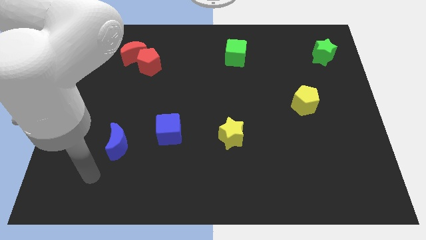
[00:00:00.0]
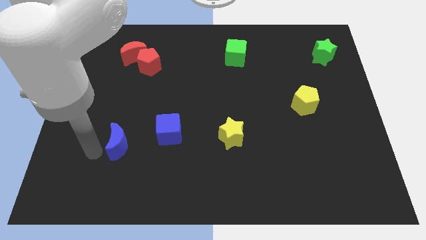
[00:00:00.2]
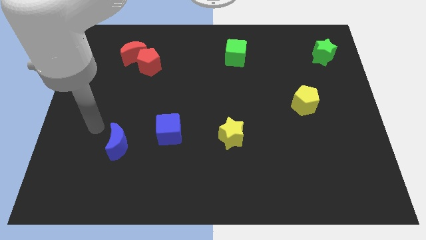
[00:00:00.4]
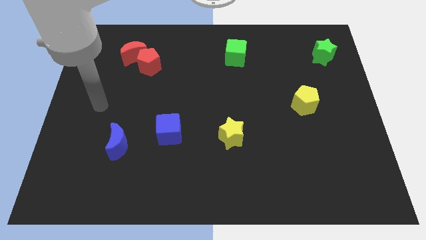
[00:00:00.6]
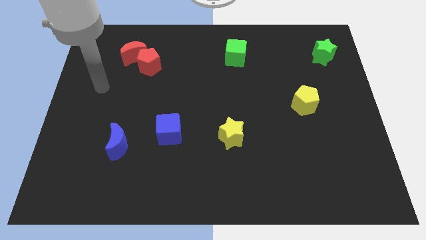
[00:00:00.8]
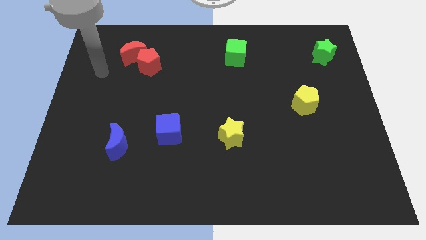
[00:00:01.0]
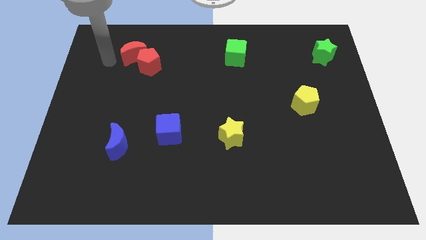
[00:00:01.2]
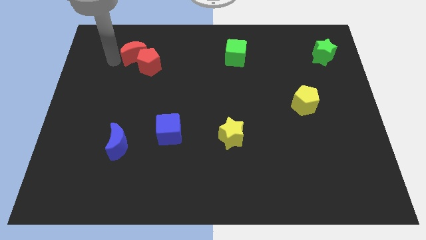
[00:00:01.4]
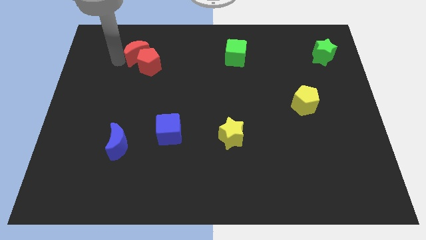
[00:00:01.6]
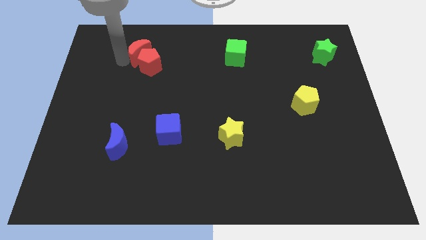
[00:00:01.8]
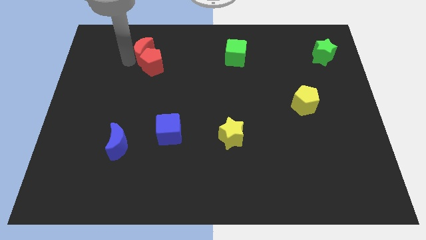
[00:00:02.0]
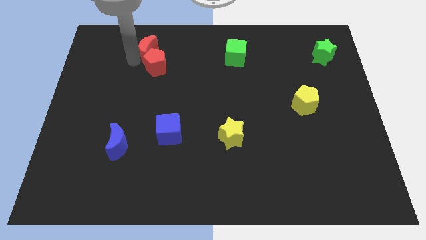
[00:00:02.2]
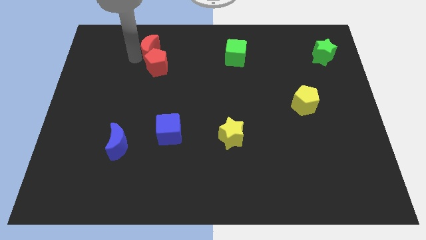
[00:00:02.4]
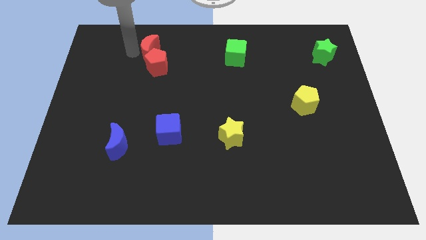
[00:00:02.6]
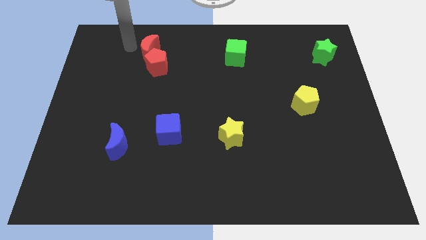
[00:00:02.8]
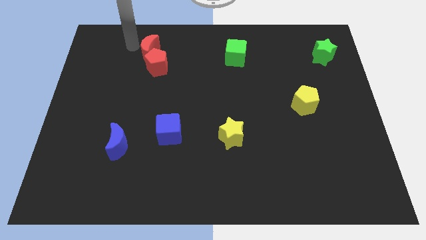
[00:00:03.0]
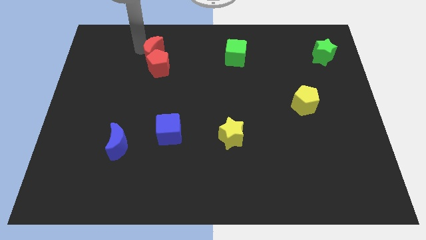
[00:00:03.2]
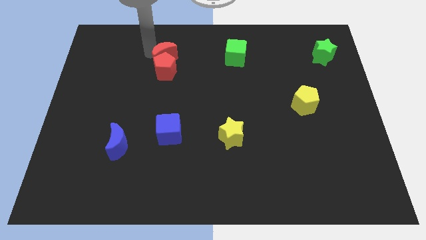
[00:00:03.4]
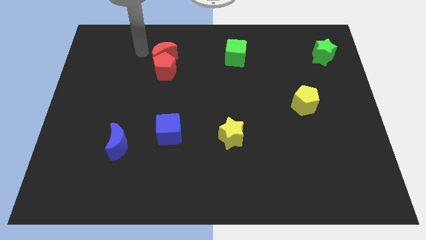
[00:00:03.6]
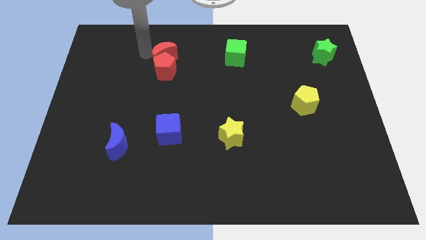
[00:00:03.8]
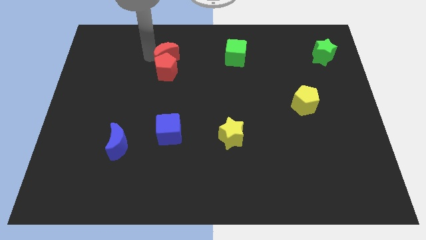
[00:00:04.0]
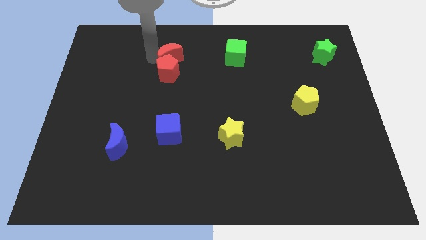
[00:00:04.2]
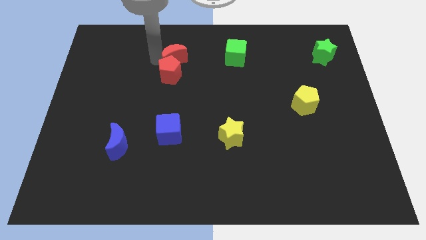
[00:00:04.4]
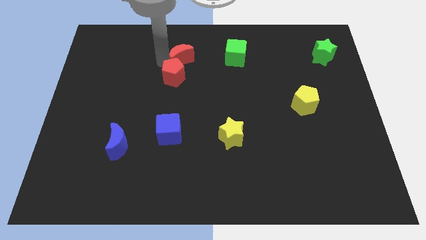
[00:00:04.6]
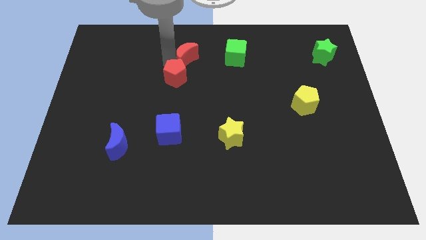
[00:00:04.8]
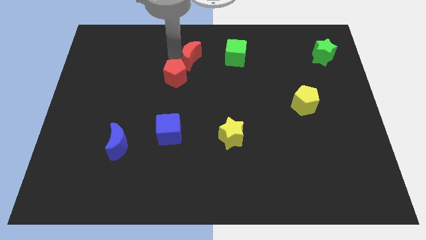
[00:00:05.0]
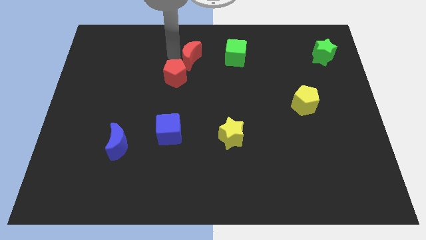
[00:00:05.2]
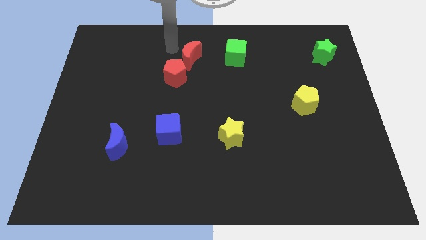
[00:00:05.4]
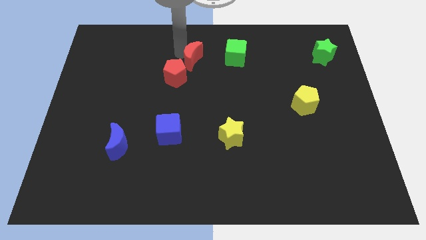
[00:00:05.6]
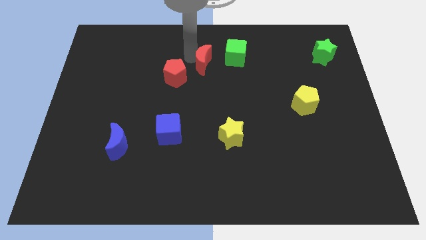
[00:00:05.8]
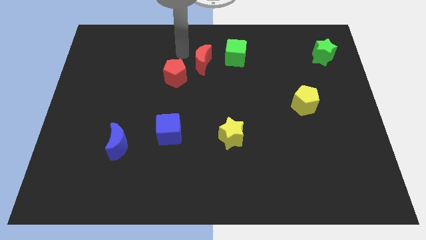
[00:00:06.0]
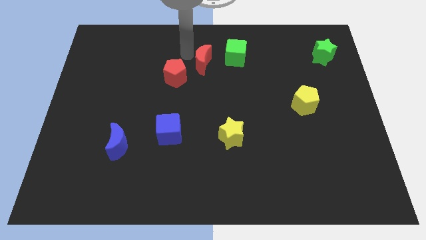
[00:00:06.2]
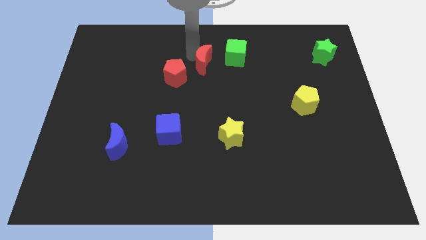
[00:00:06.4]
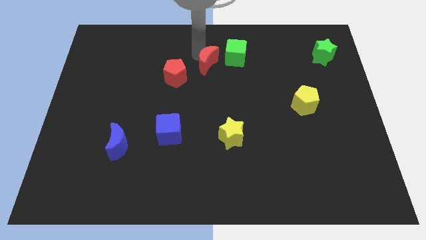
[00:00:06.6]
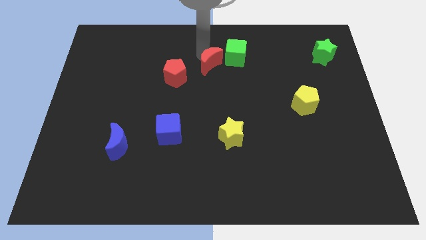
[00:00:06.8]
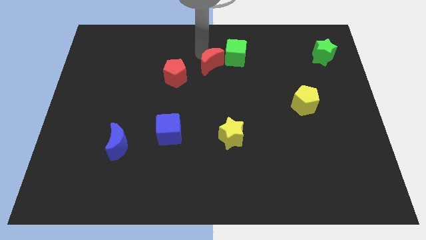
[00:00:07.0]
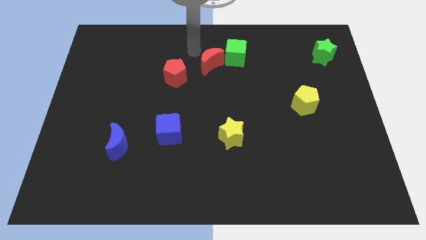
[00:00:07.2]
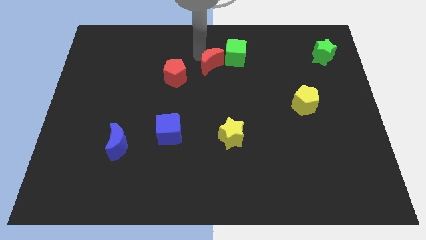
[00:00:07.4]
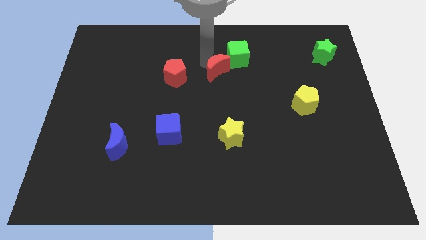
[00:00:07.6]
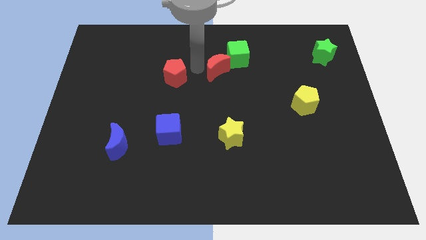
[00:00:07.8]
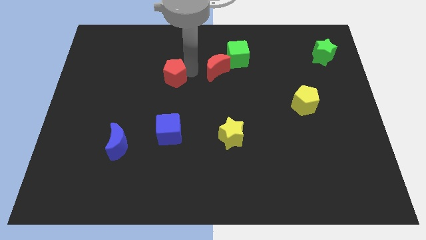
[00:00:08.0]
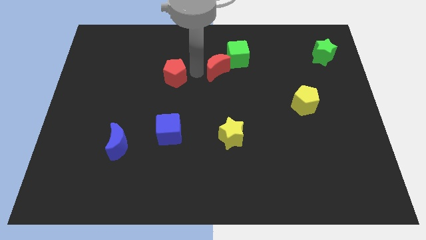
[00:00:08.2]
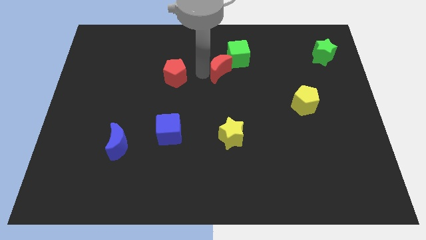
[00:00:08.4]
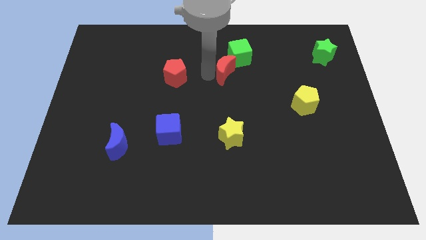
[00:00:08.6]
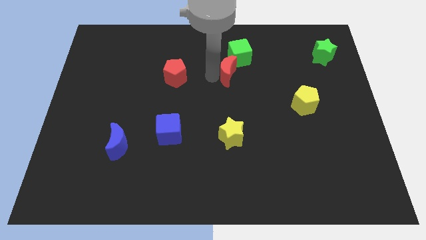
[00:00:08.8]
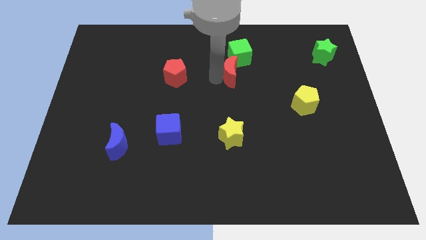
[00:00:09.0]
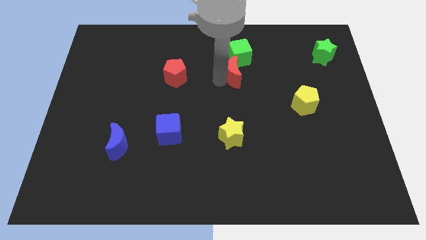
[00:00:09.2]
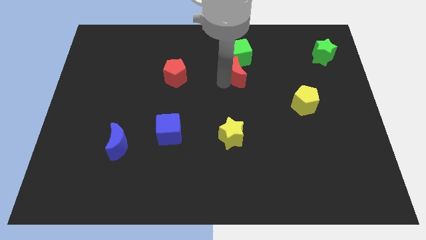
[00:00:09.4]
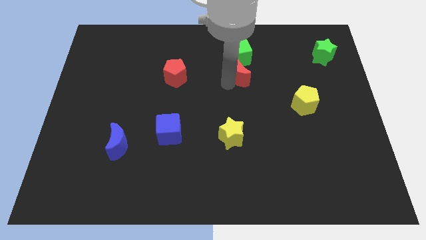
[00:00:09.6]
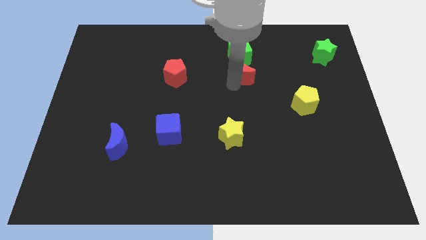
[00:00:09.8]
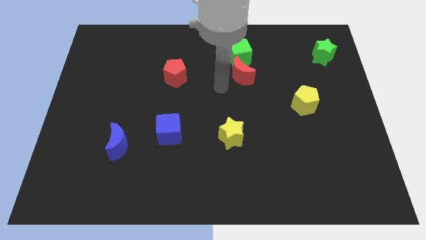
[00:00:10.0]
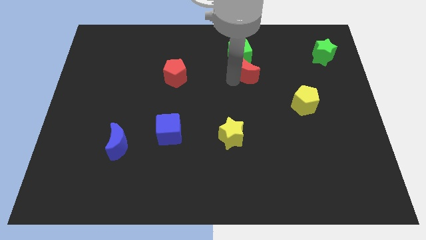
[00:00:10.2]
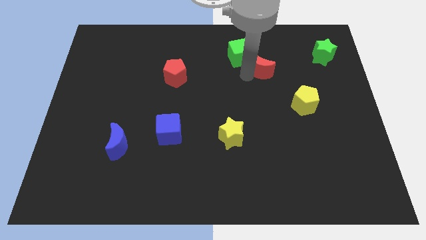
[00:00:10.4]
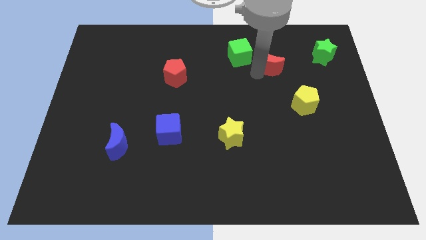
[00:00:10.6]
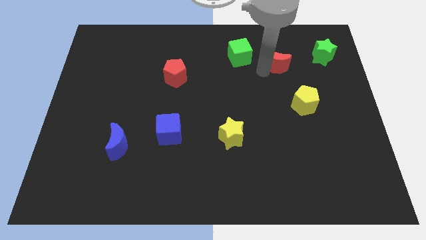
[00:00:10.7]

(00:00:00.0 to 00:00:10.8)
put the red moon to the left side of the green star

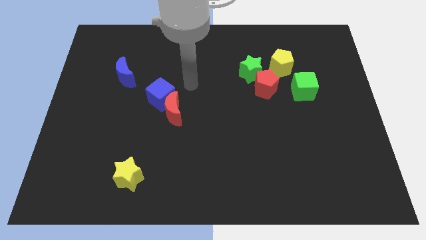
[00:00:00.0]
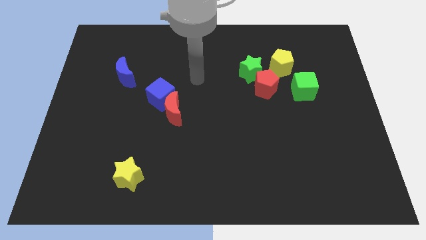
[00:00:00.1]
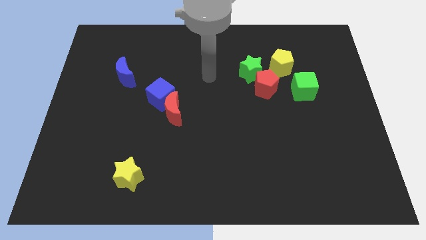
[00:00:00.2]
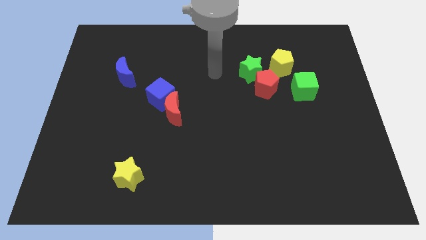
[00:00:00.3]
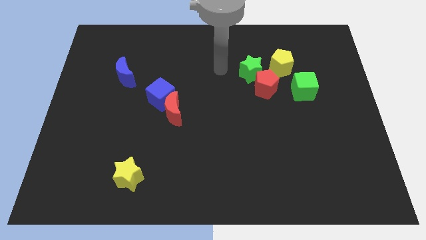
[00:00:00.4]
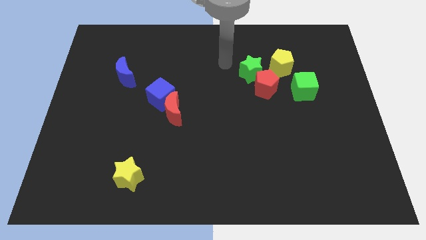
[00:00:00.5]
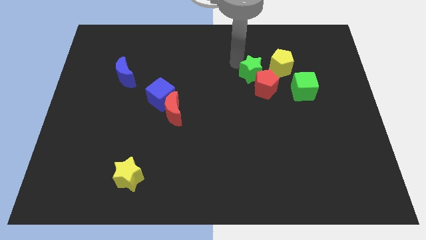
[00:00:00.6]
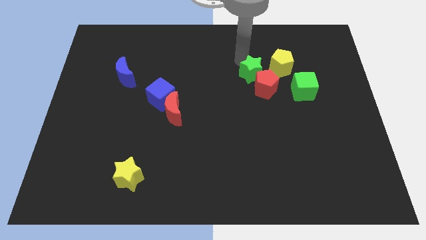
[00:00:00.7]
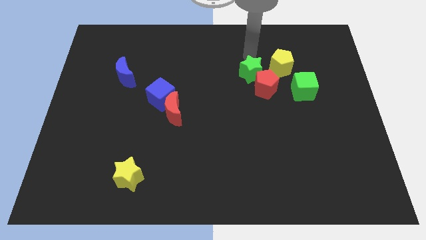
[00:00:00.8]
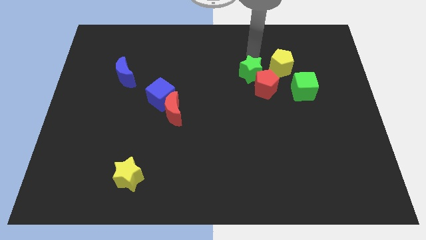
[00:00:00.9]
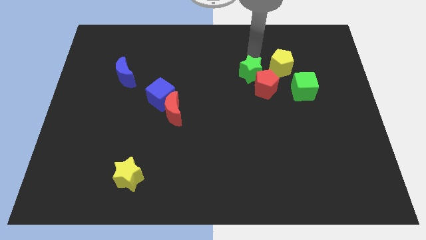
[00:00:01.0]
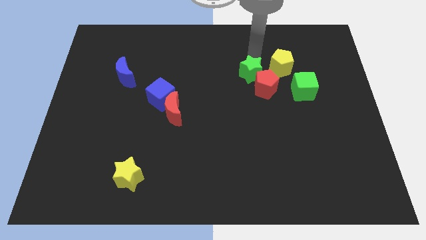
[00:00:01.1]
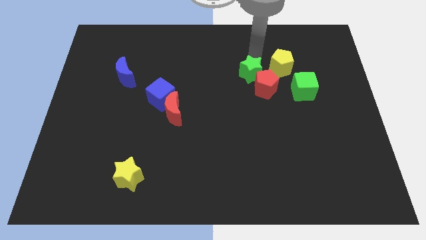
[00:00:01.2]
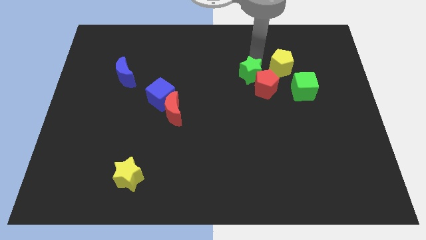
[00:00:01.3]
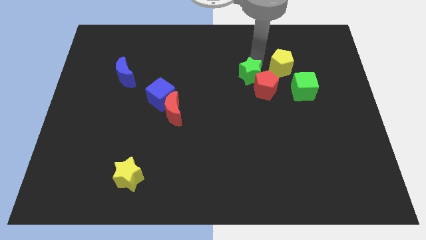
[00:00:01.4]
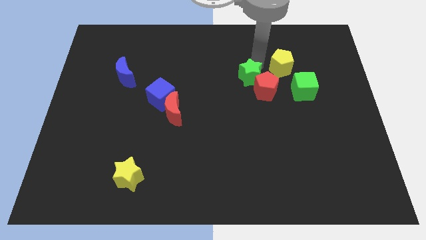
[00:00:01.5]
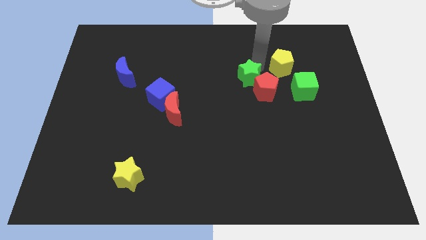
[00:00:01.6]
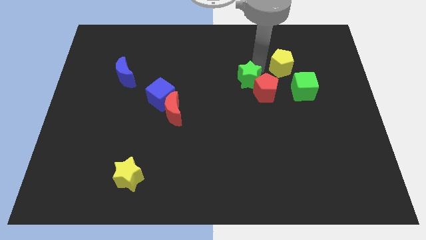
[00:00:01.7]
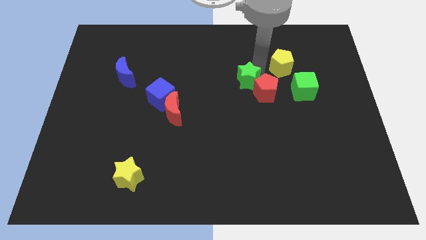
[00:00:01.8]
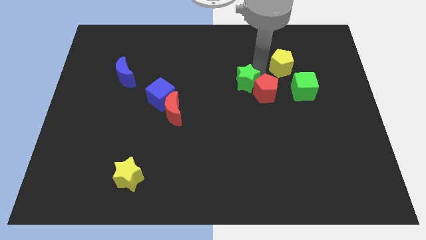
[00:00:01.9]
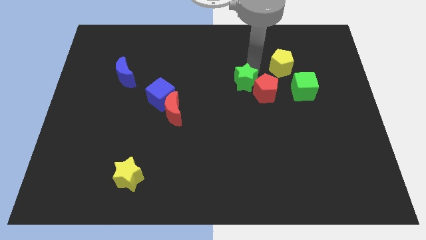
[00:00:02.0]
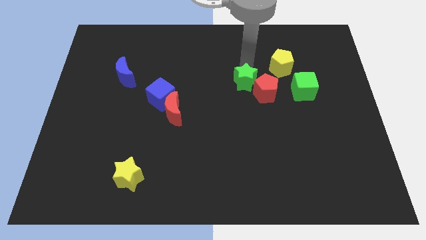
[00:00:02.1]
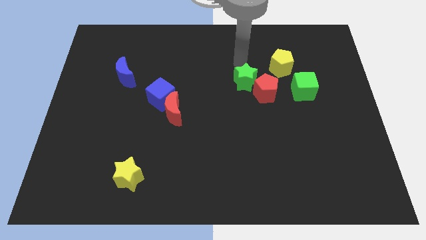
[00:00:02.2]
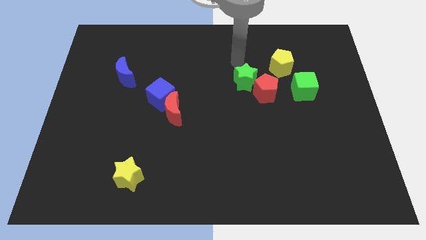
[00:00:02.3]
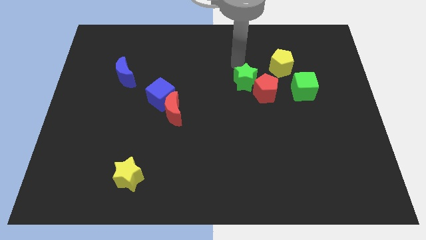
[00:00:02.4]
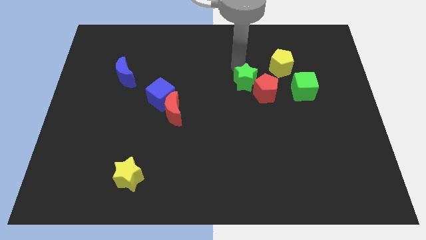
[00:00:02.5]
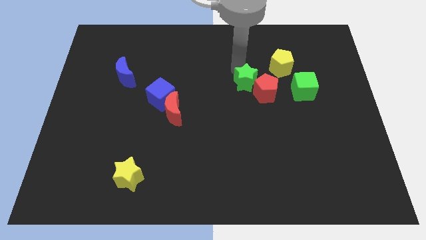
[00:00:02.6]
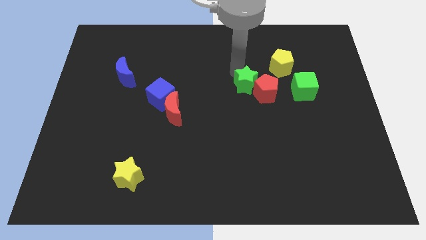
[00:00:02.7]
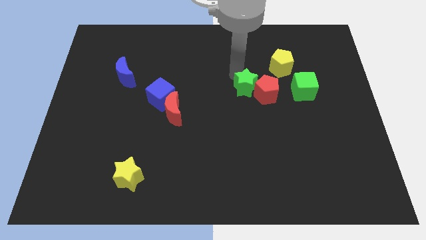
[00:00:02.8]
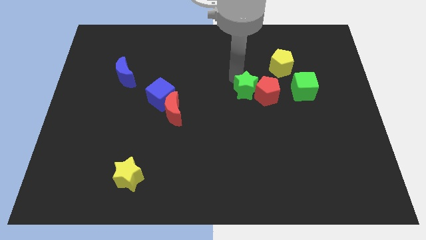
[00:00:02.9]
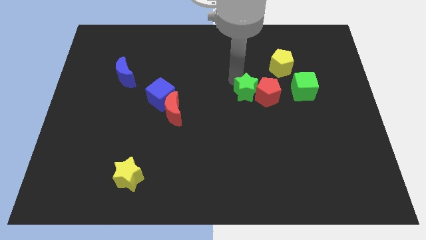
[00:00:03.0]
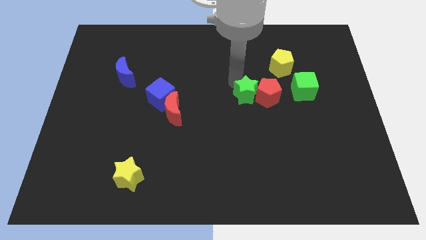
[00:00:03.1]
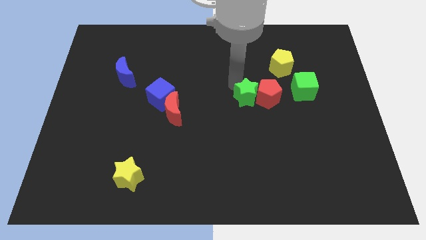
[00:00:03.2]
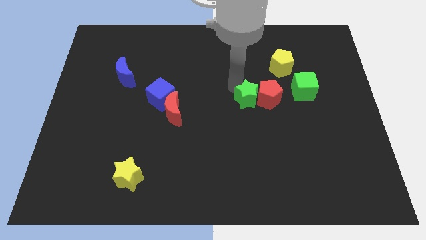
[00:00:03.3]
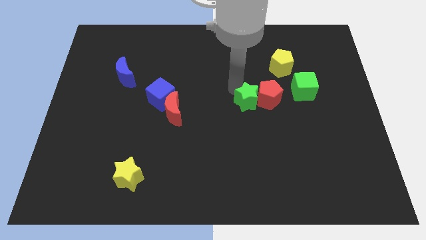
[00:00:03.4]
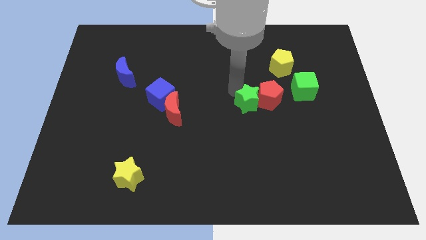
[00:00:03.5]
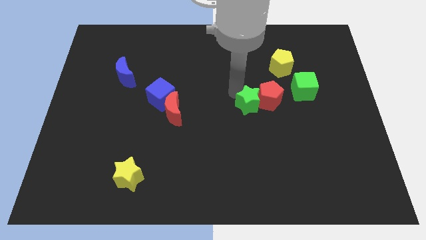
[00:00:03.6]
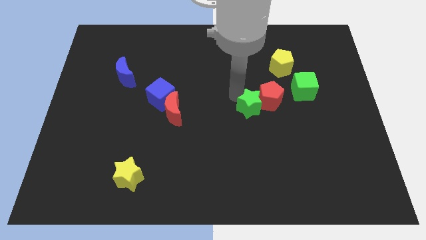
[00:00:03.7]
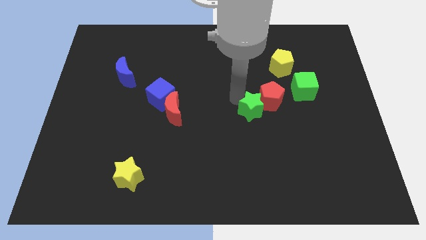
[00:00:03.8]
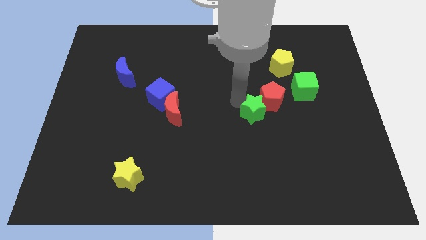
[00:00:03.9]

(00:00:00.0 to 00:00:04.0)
push the green star to the bottom of the red pentagon
